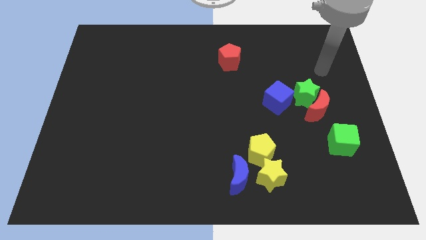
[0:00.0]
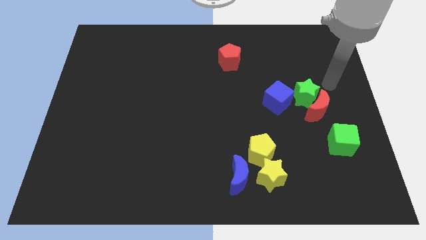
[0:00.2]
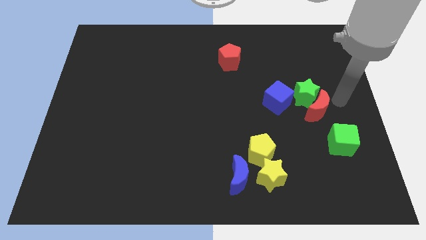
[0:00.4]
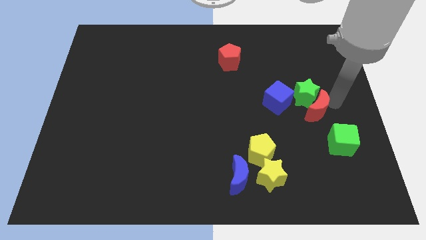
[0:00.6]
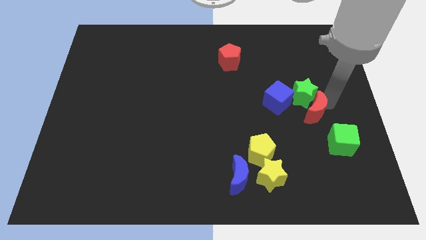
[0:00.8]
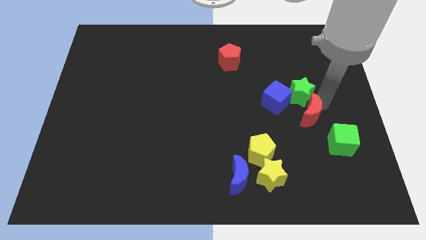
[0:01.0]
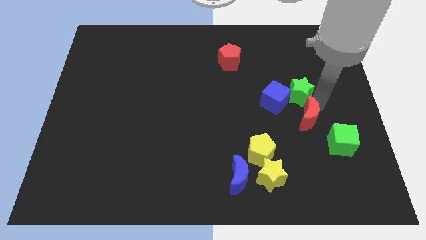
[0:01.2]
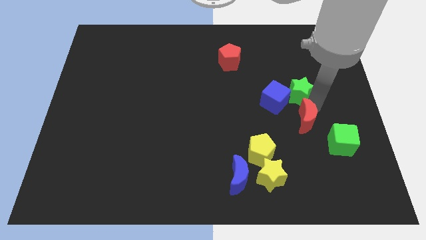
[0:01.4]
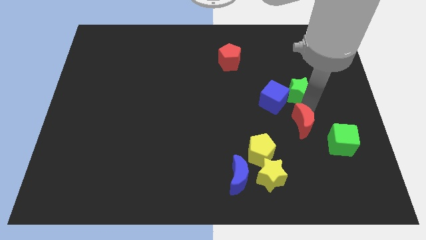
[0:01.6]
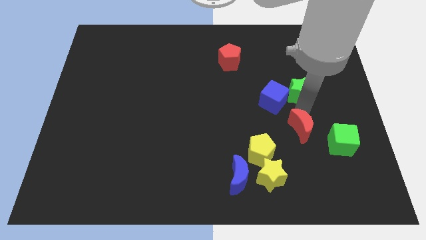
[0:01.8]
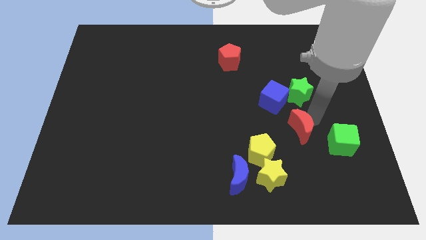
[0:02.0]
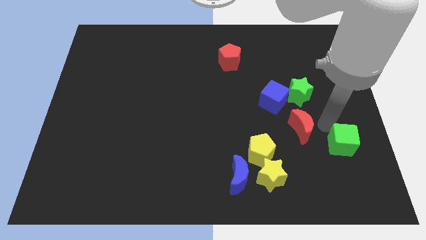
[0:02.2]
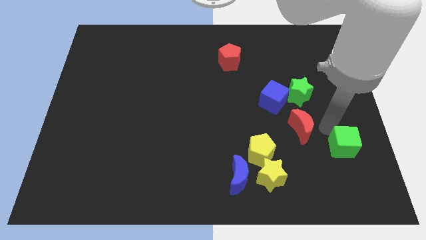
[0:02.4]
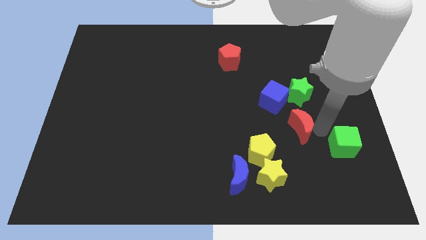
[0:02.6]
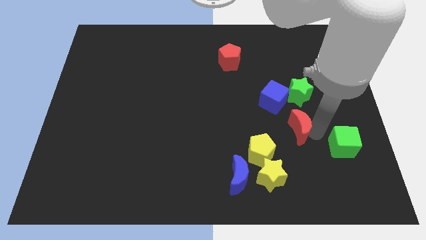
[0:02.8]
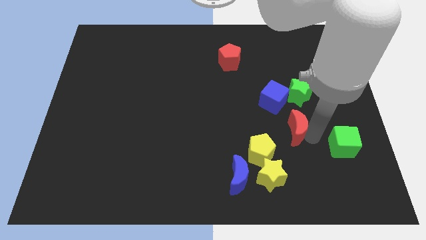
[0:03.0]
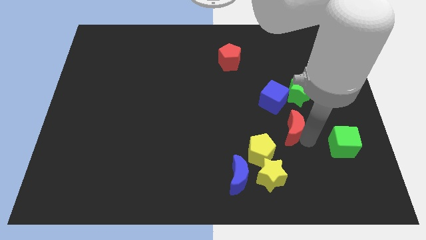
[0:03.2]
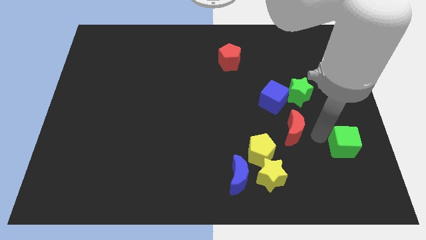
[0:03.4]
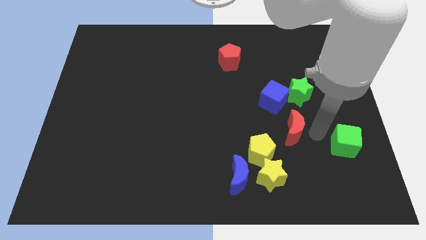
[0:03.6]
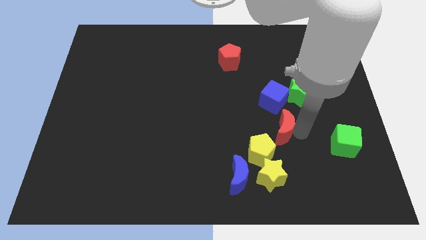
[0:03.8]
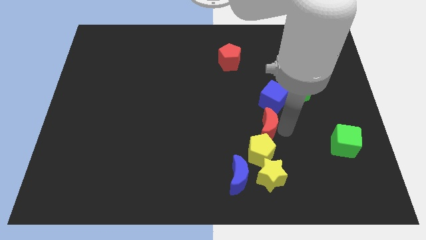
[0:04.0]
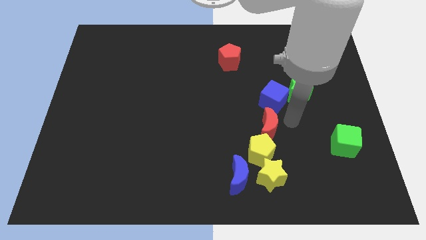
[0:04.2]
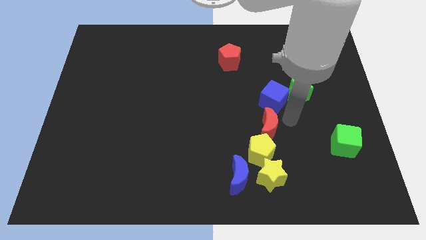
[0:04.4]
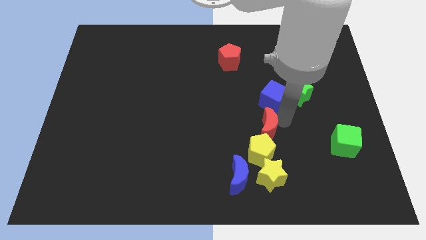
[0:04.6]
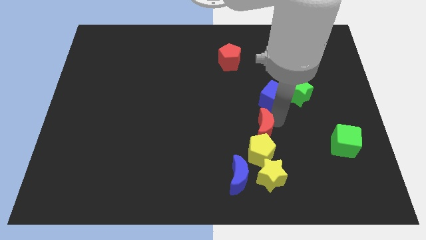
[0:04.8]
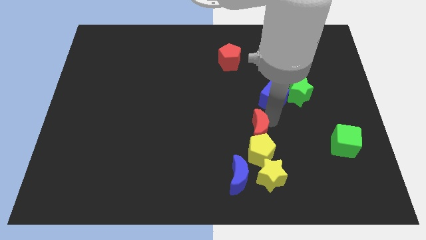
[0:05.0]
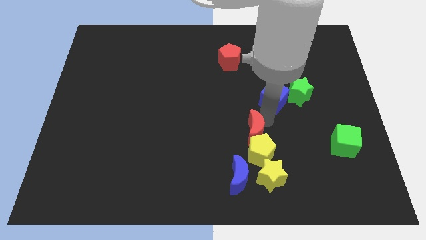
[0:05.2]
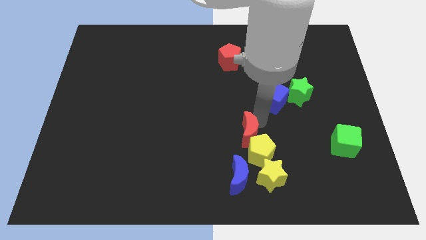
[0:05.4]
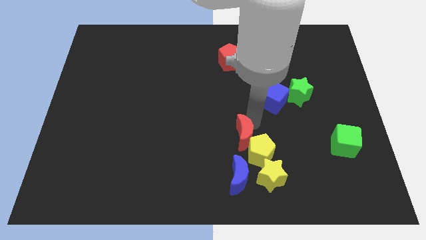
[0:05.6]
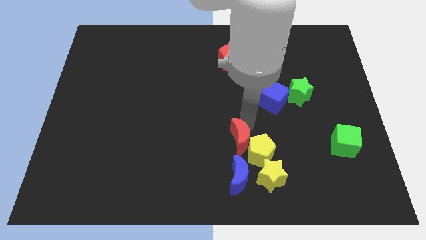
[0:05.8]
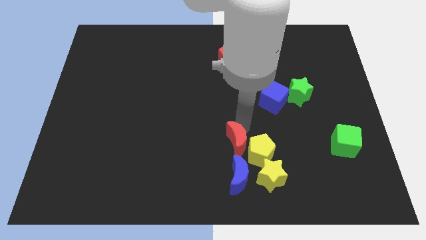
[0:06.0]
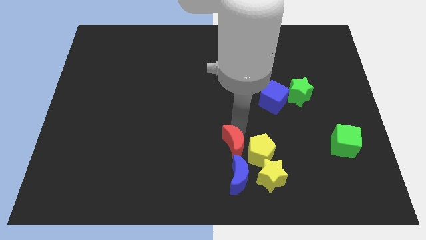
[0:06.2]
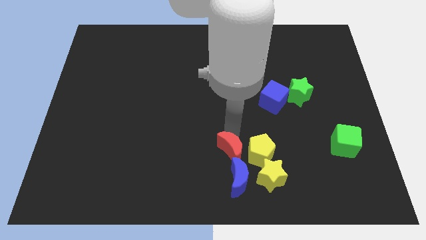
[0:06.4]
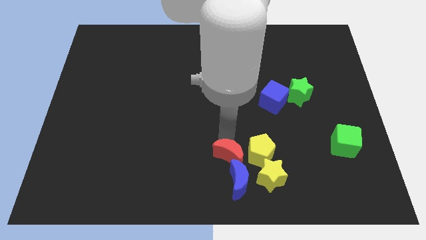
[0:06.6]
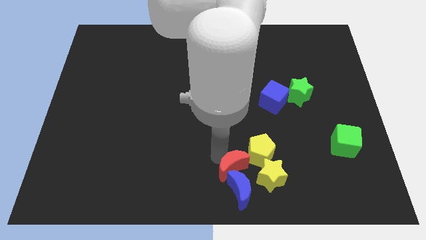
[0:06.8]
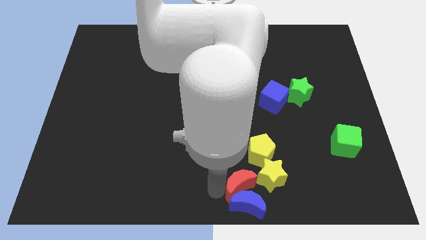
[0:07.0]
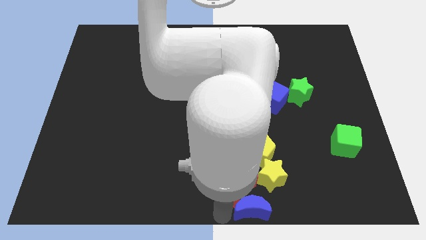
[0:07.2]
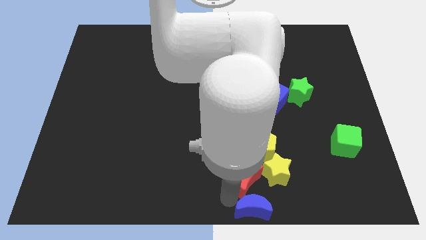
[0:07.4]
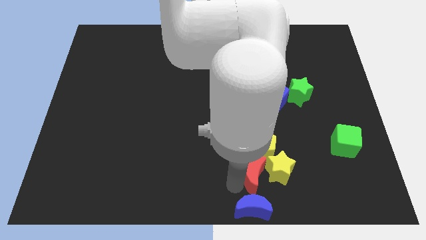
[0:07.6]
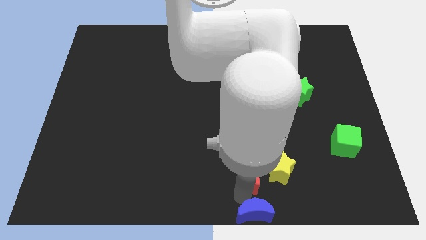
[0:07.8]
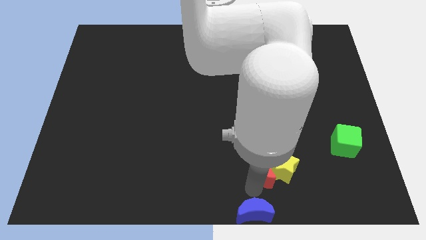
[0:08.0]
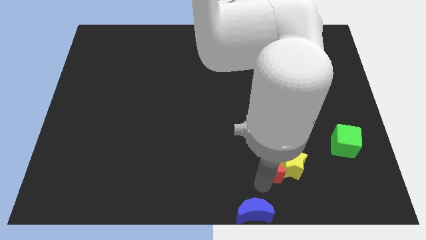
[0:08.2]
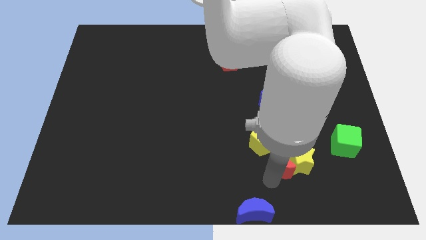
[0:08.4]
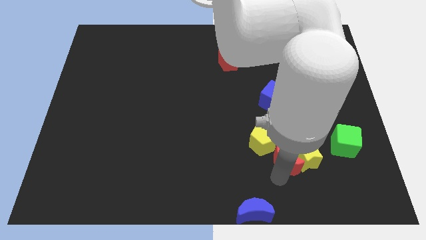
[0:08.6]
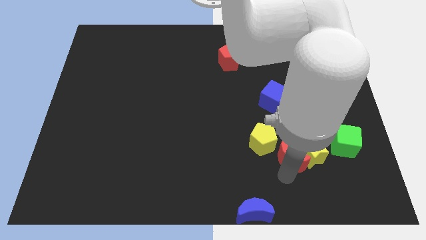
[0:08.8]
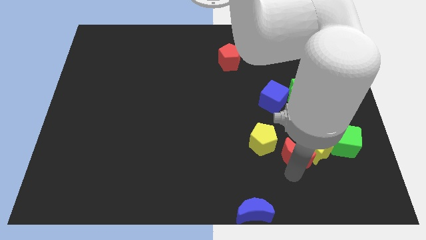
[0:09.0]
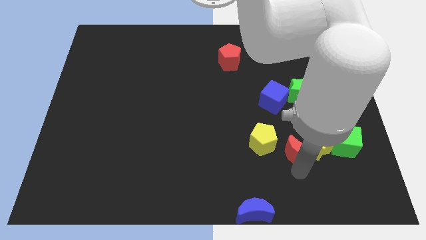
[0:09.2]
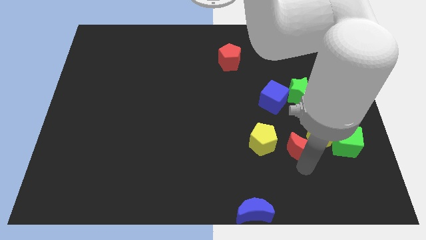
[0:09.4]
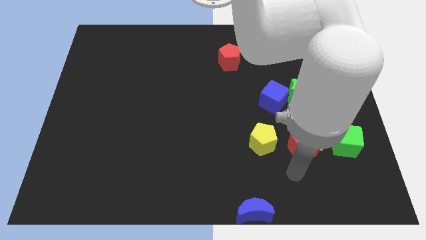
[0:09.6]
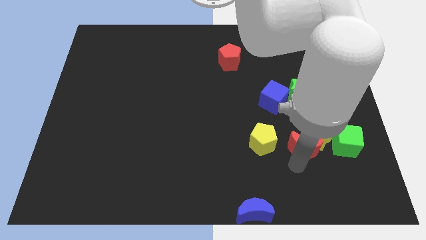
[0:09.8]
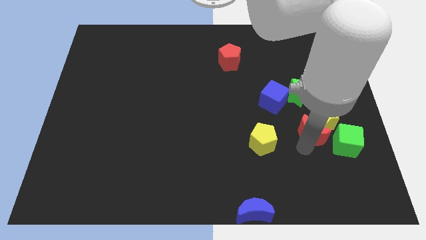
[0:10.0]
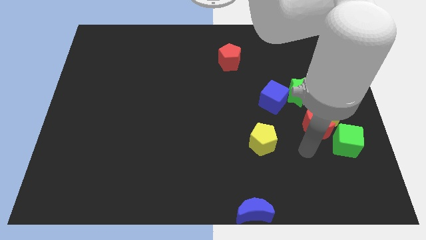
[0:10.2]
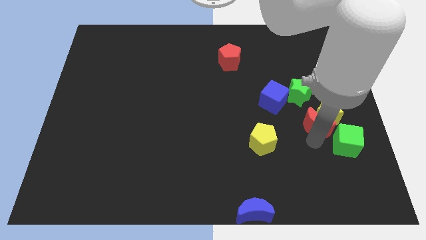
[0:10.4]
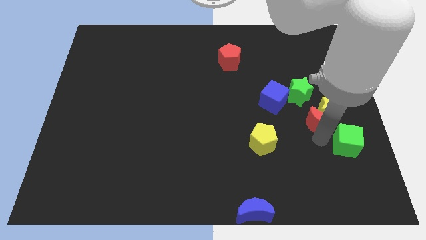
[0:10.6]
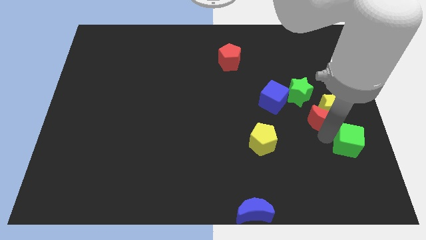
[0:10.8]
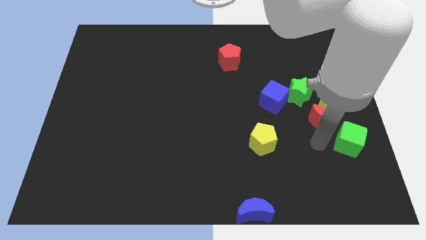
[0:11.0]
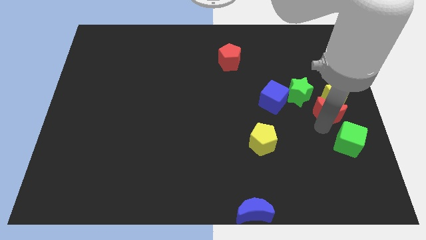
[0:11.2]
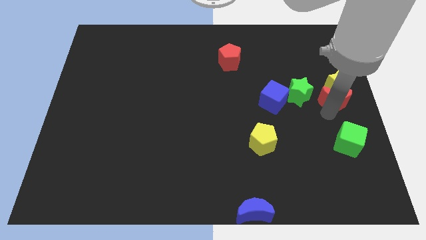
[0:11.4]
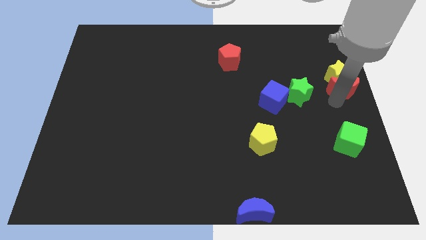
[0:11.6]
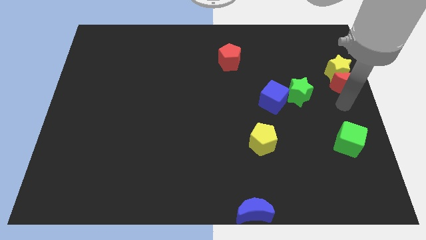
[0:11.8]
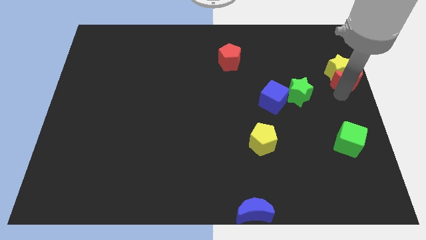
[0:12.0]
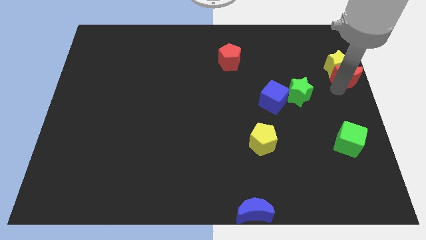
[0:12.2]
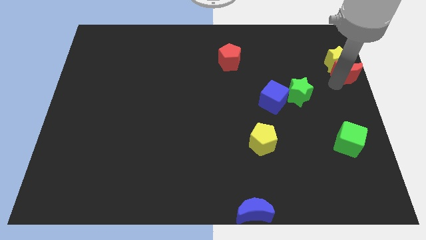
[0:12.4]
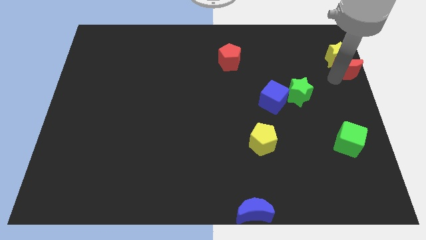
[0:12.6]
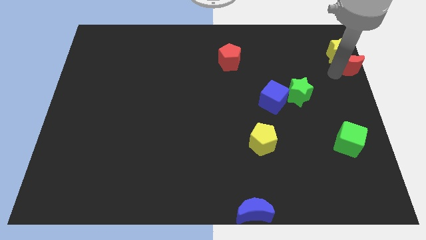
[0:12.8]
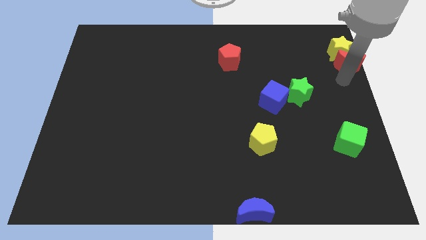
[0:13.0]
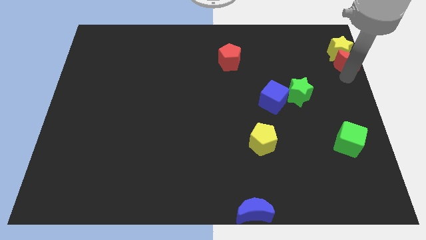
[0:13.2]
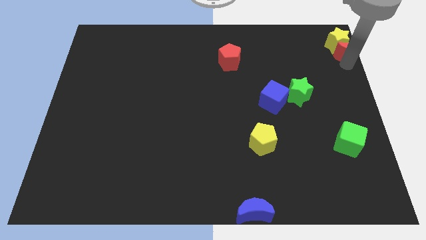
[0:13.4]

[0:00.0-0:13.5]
slide the red moon to the top right corner
